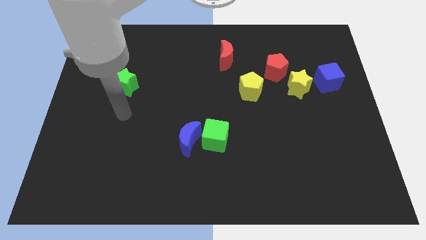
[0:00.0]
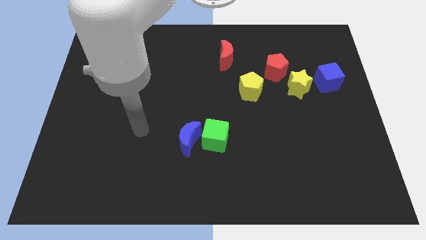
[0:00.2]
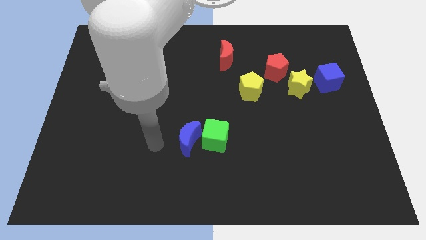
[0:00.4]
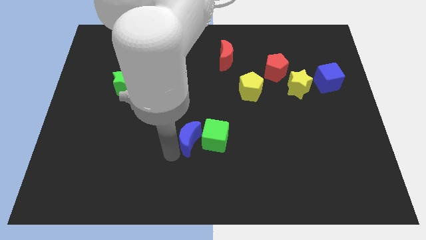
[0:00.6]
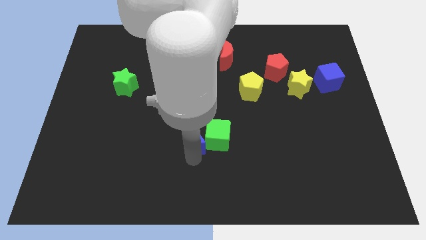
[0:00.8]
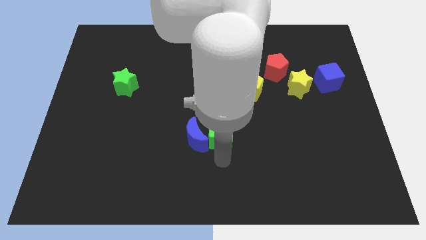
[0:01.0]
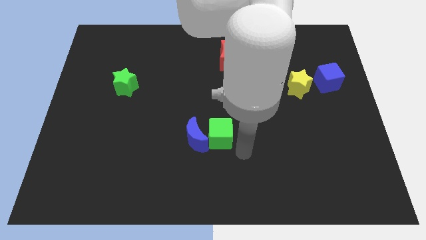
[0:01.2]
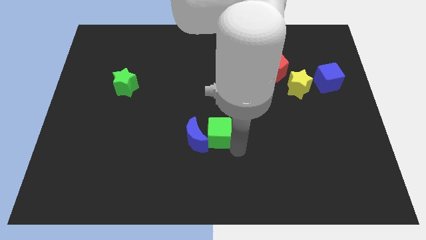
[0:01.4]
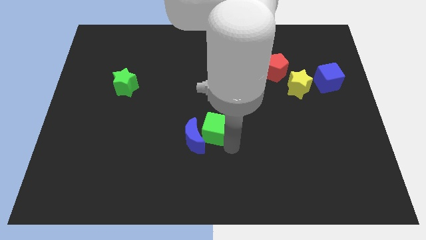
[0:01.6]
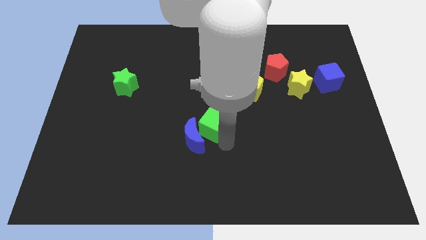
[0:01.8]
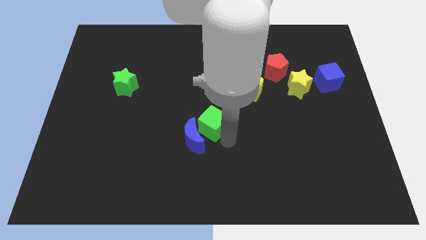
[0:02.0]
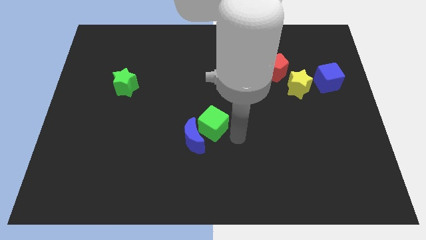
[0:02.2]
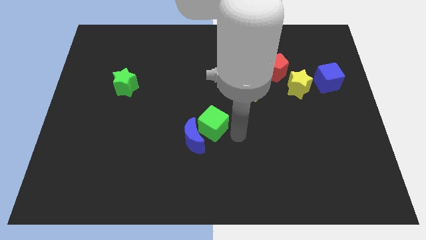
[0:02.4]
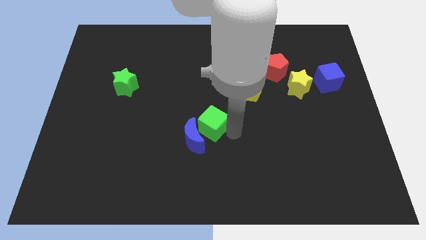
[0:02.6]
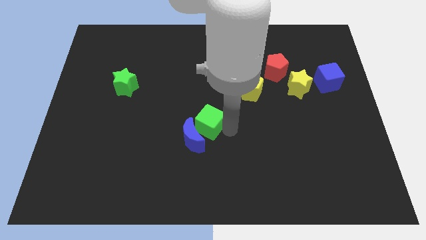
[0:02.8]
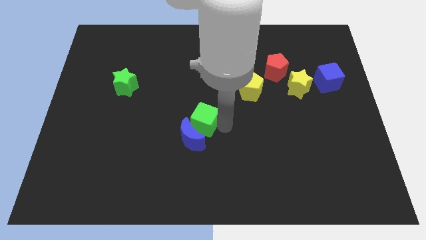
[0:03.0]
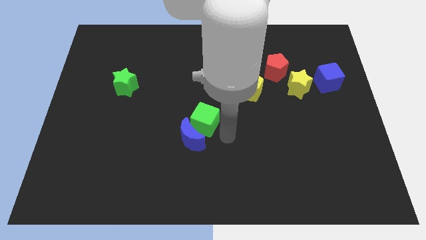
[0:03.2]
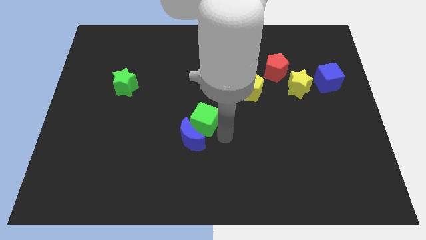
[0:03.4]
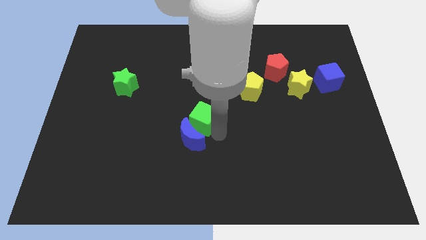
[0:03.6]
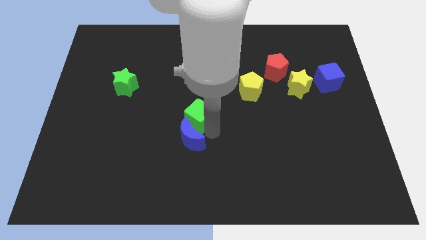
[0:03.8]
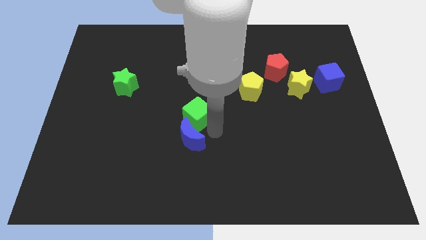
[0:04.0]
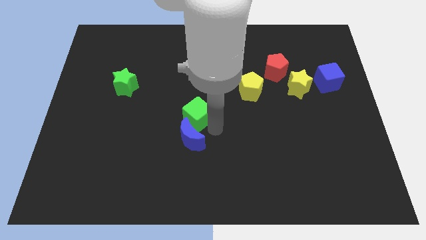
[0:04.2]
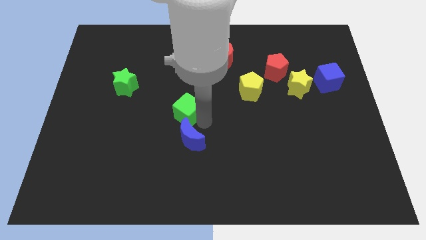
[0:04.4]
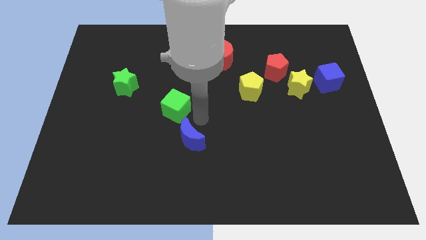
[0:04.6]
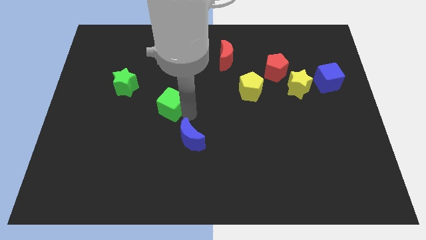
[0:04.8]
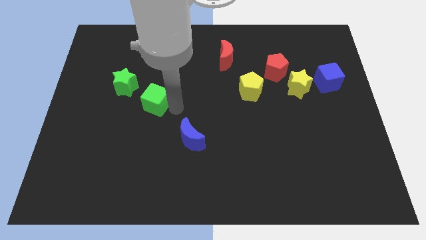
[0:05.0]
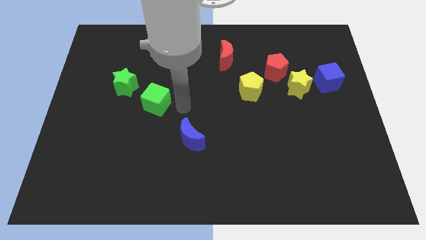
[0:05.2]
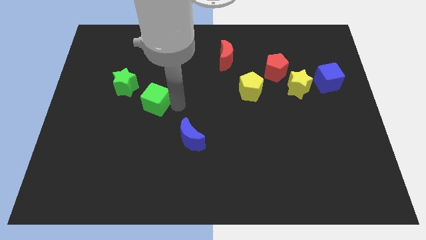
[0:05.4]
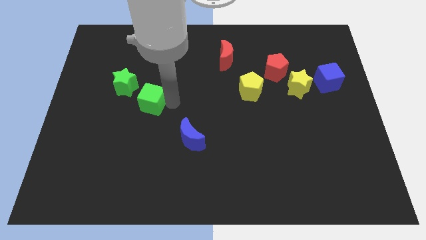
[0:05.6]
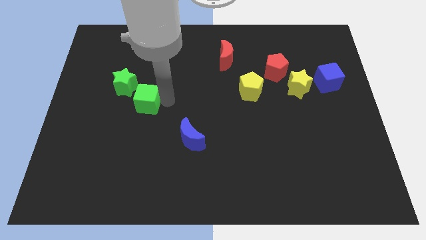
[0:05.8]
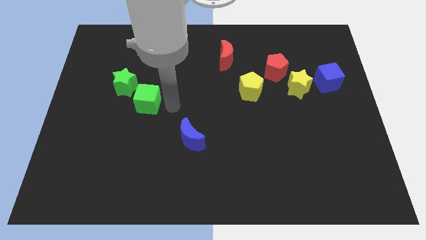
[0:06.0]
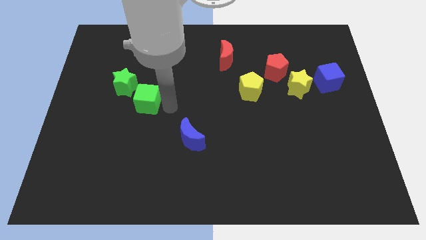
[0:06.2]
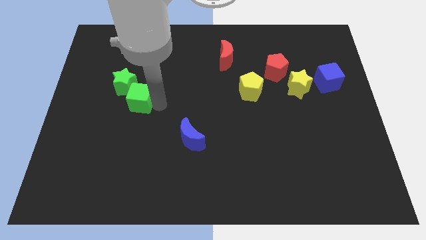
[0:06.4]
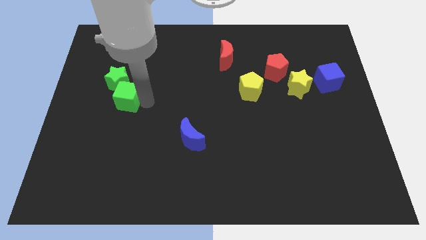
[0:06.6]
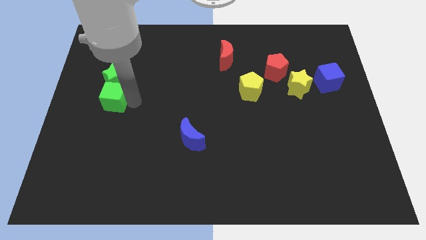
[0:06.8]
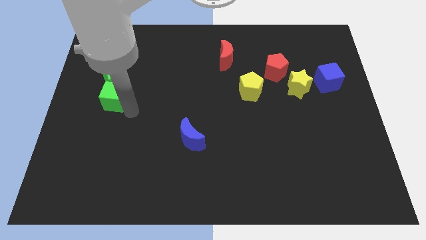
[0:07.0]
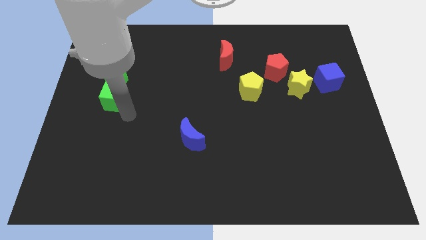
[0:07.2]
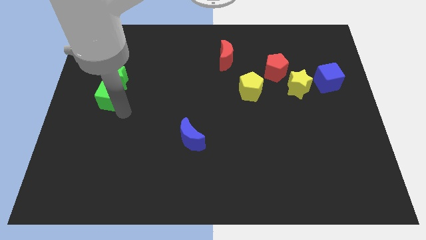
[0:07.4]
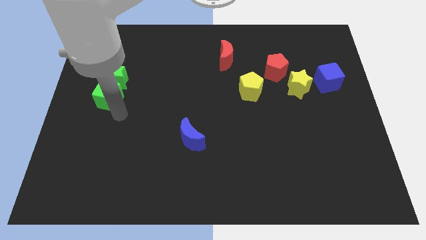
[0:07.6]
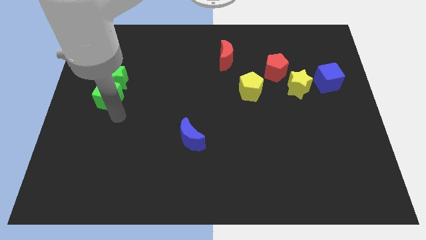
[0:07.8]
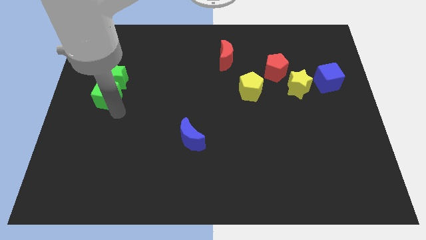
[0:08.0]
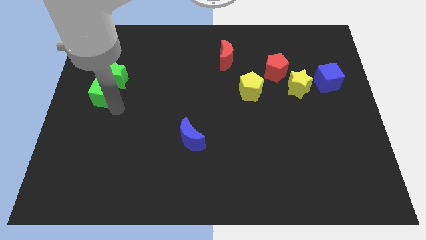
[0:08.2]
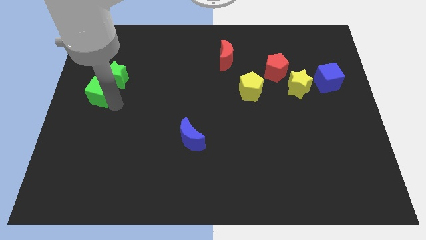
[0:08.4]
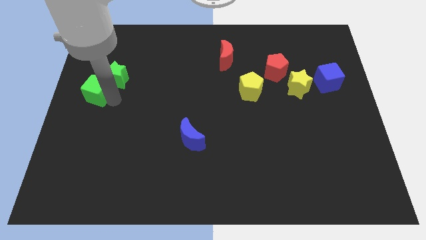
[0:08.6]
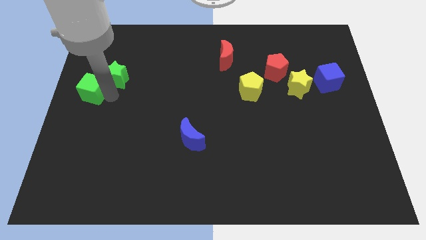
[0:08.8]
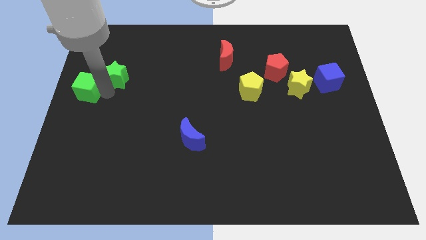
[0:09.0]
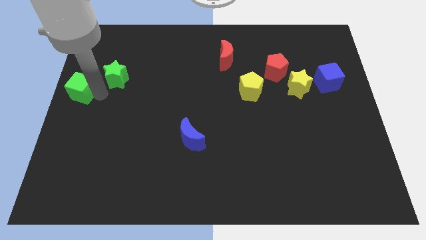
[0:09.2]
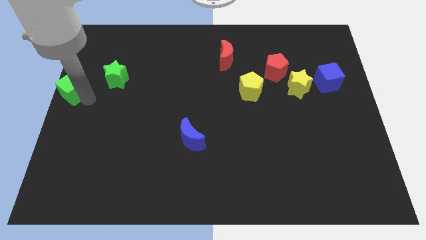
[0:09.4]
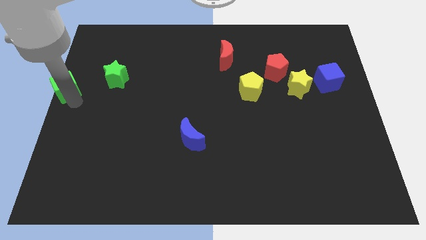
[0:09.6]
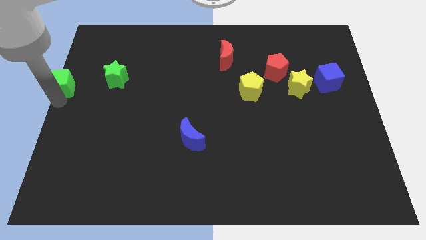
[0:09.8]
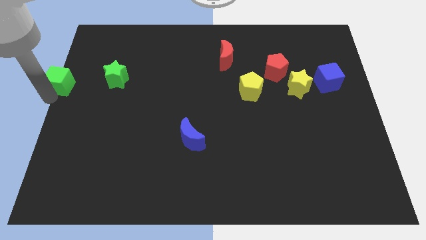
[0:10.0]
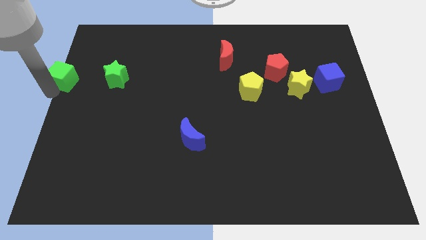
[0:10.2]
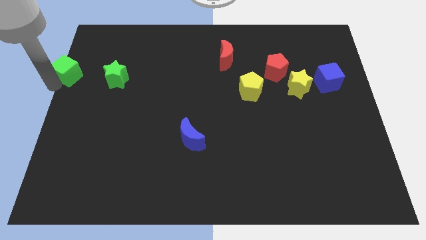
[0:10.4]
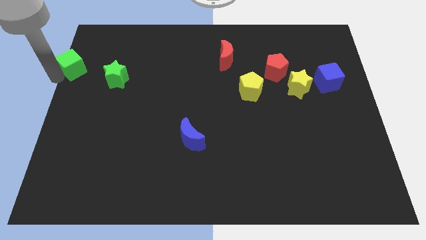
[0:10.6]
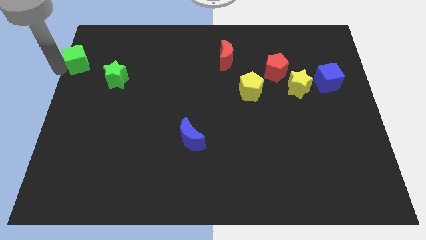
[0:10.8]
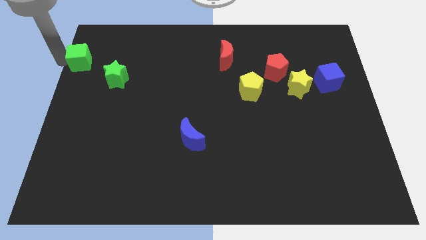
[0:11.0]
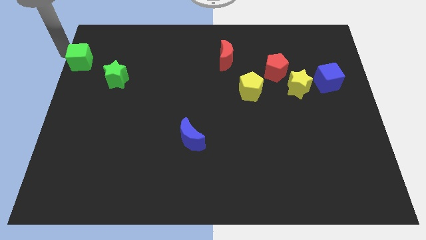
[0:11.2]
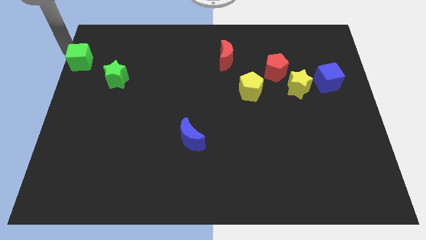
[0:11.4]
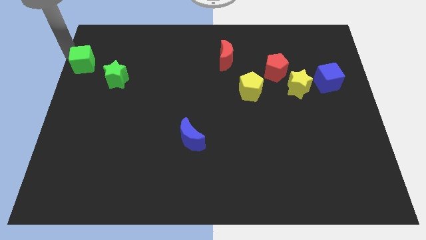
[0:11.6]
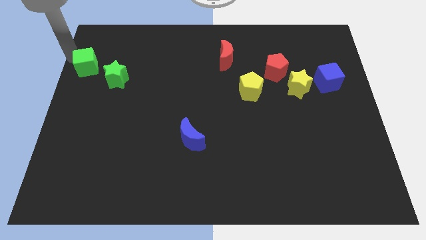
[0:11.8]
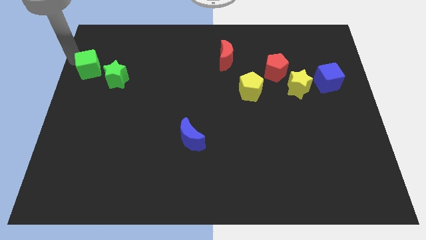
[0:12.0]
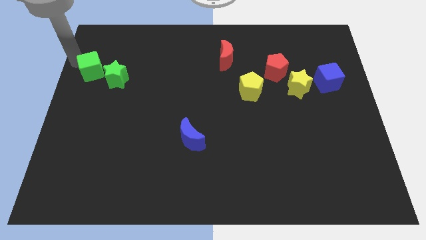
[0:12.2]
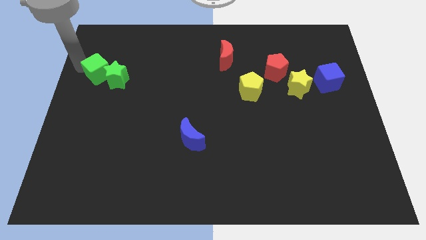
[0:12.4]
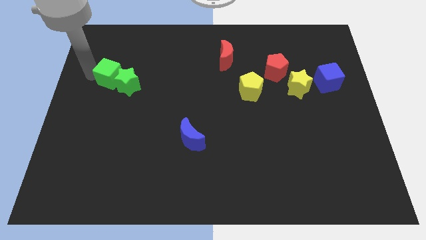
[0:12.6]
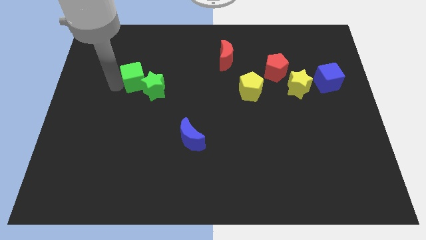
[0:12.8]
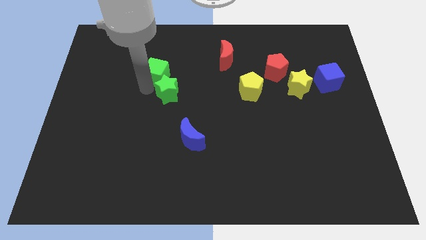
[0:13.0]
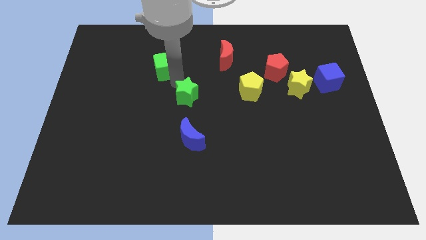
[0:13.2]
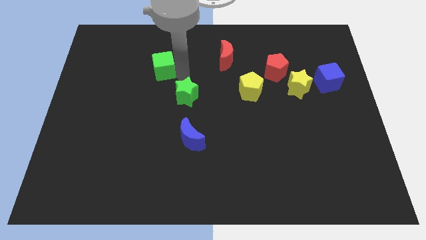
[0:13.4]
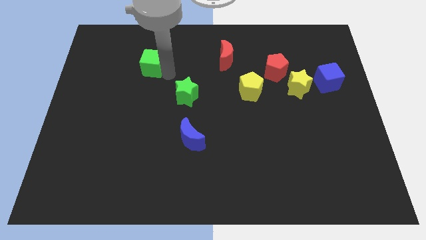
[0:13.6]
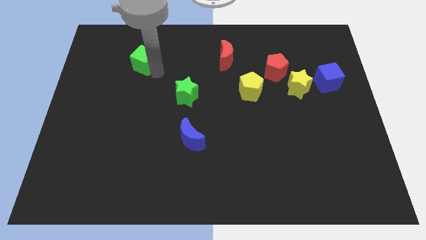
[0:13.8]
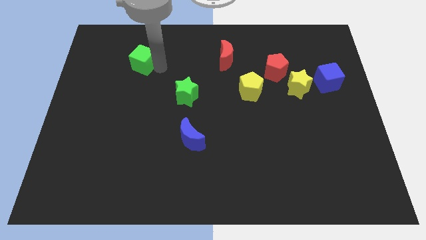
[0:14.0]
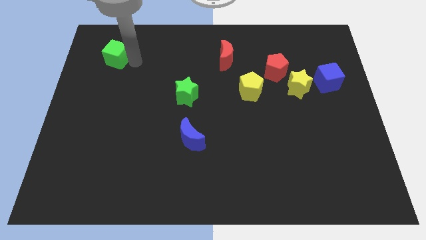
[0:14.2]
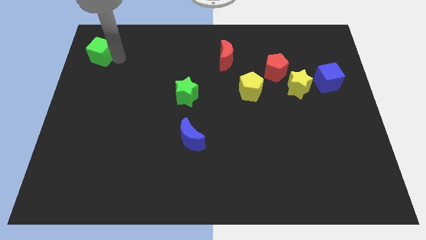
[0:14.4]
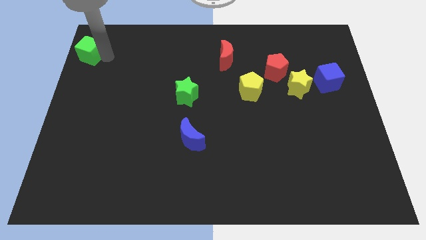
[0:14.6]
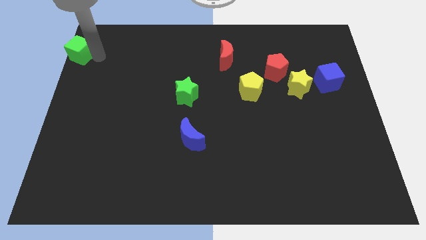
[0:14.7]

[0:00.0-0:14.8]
slide the green cube to the upper left corner
